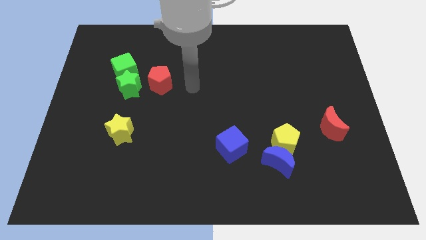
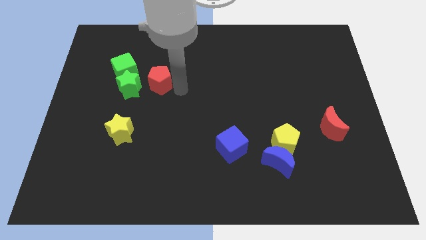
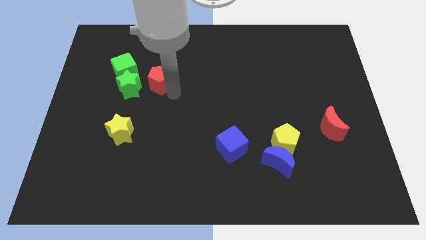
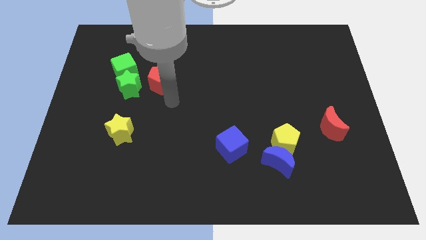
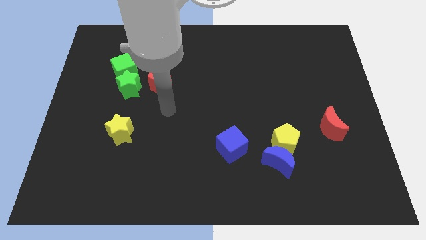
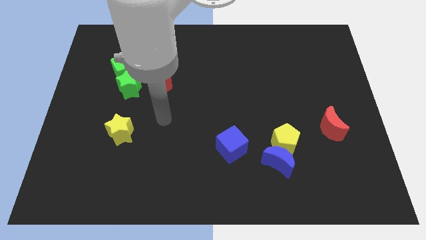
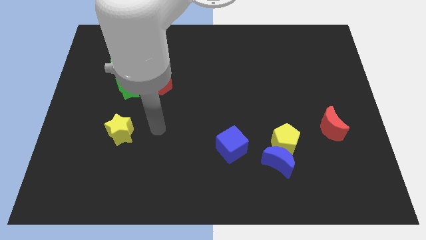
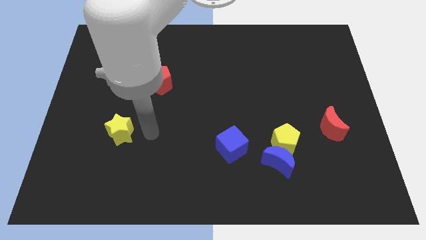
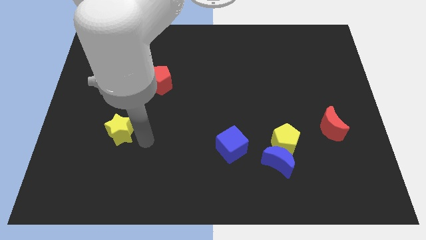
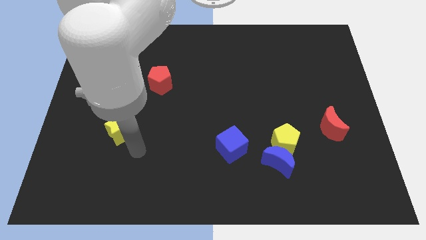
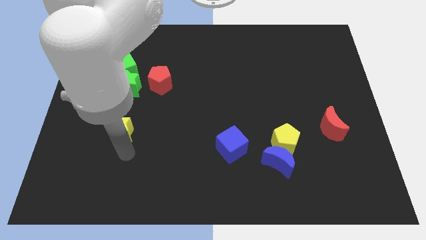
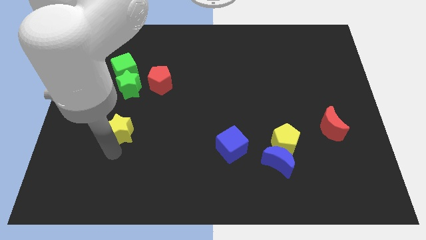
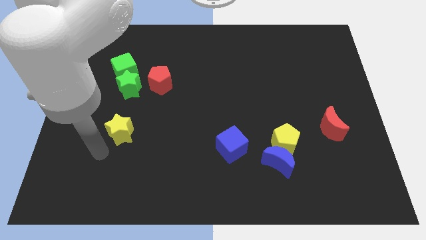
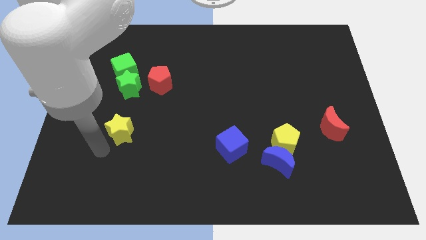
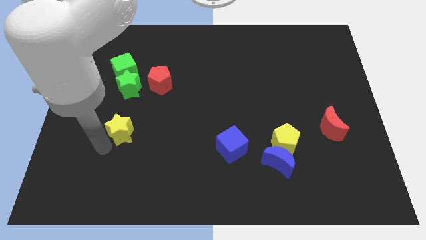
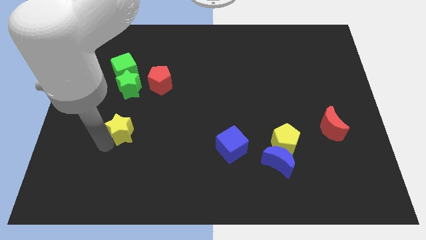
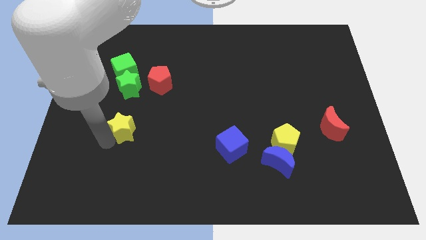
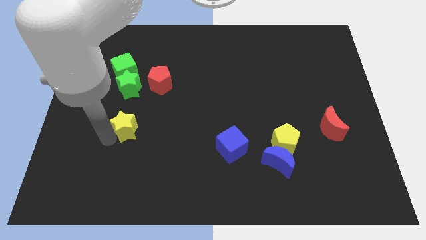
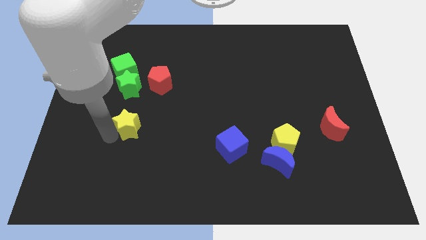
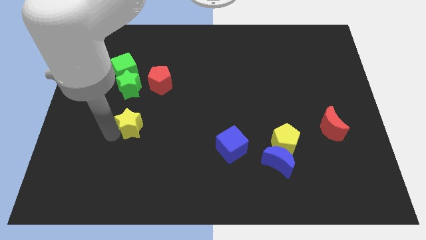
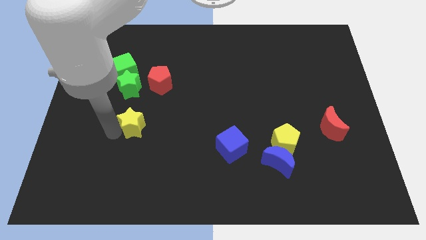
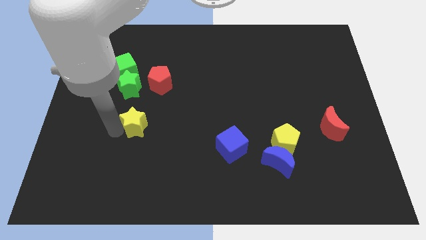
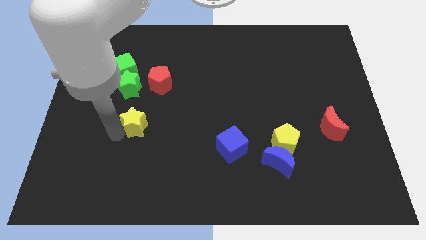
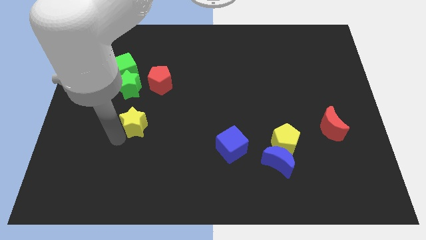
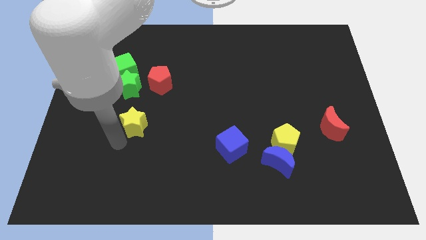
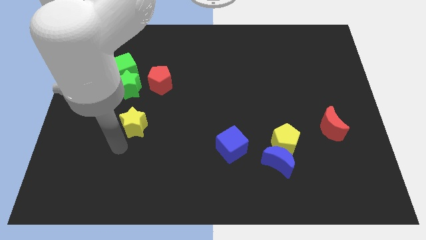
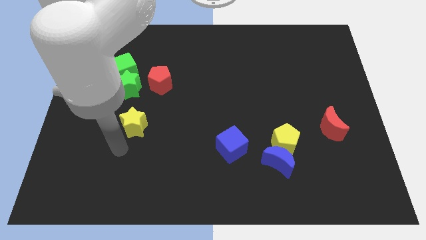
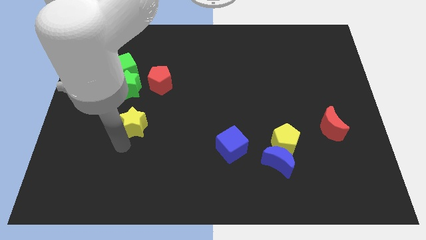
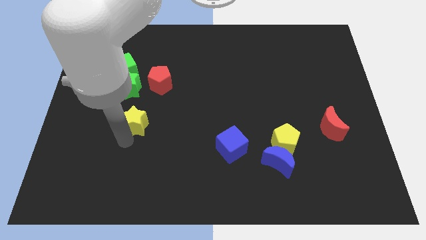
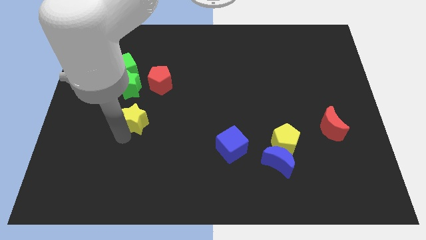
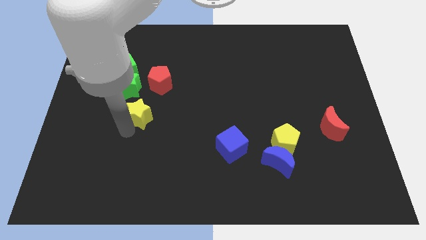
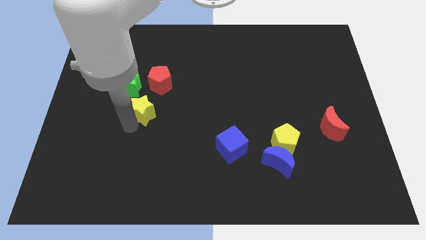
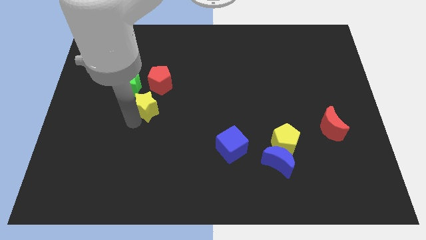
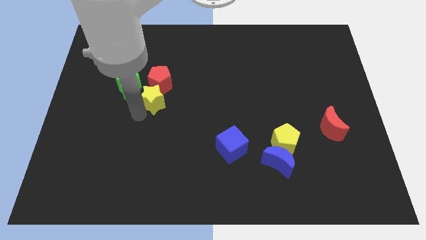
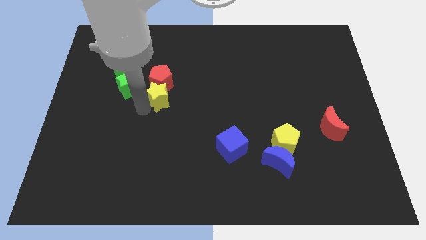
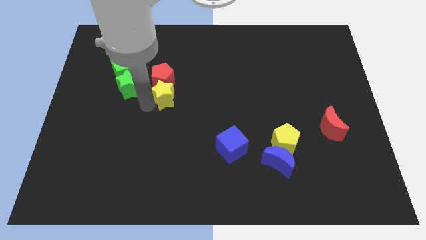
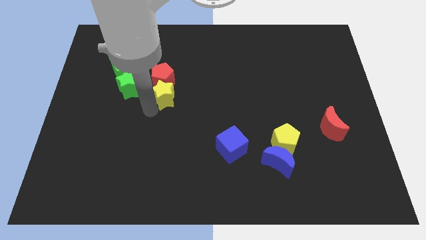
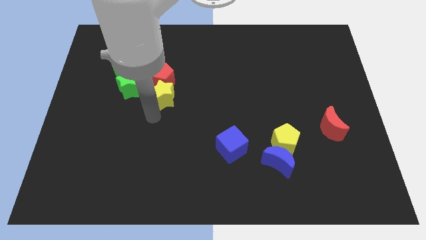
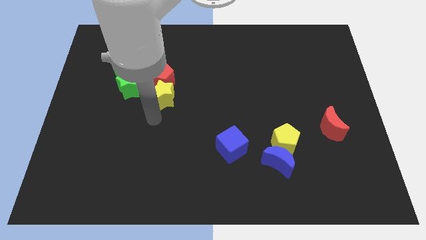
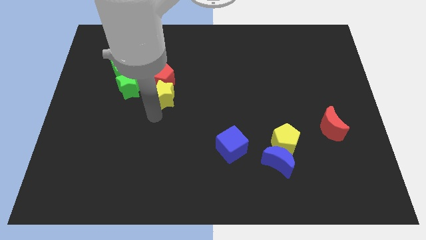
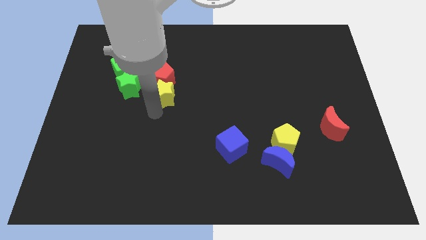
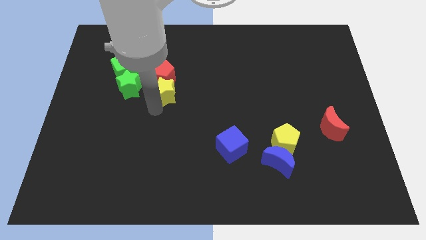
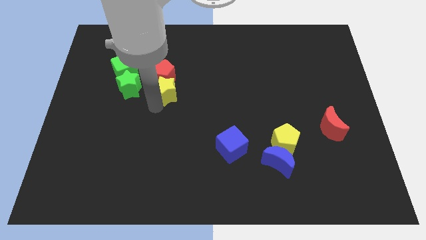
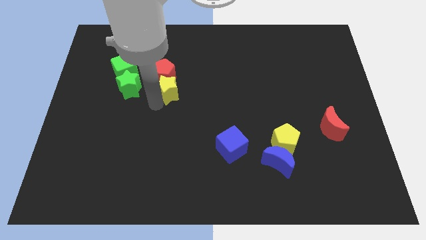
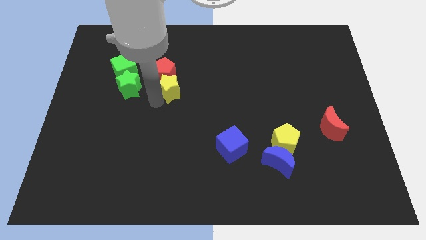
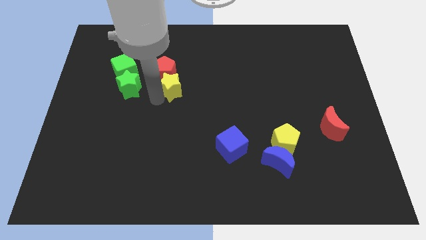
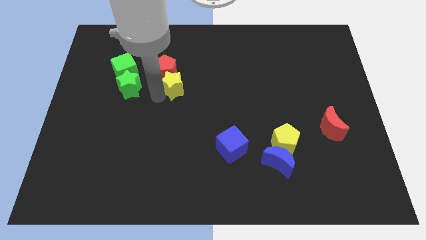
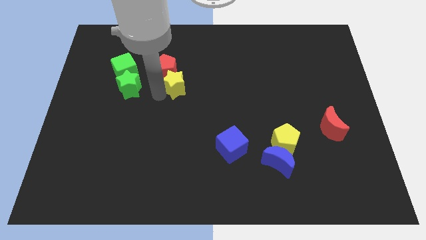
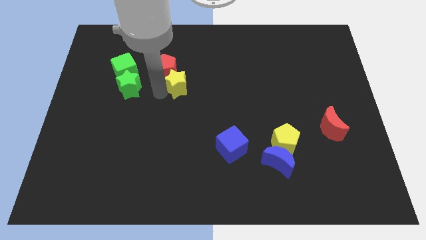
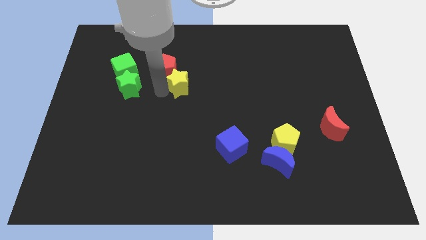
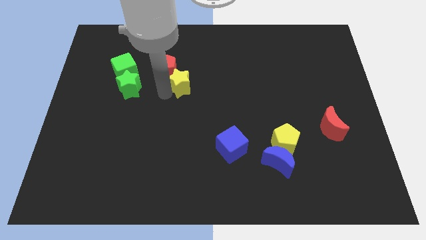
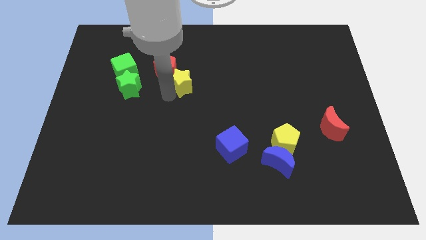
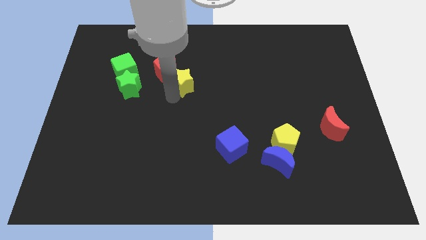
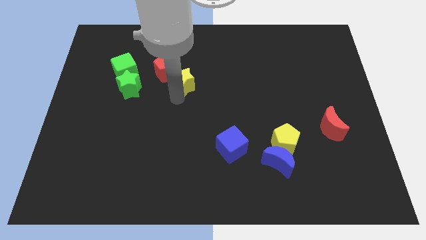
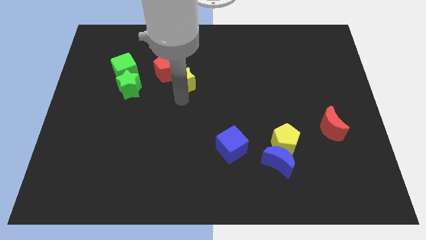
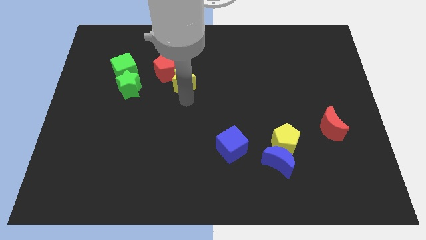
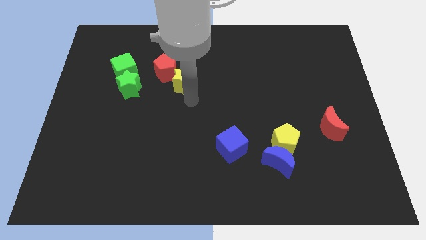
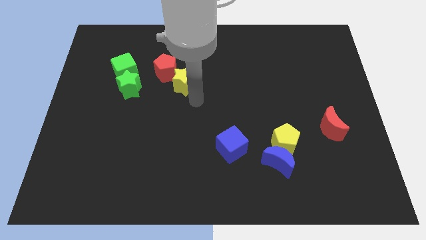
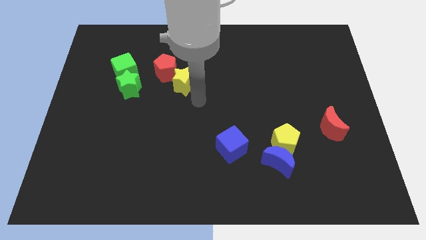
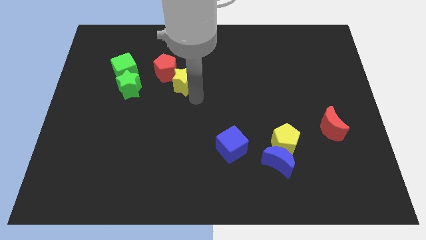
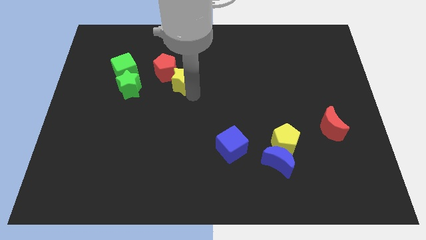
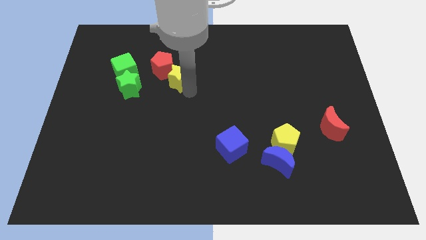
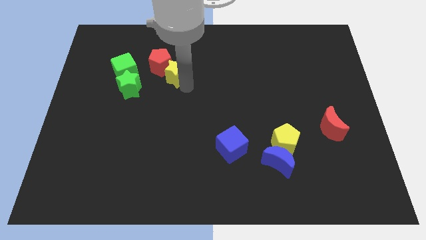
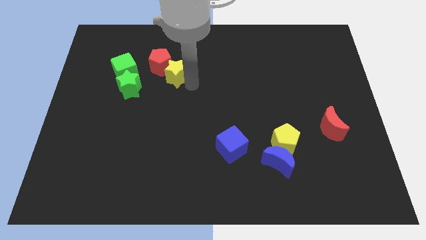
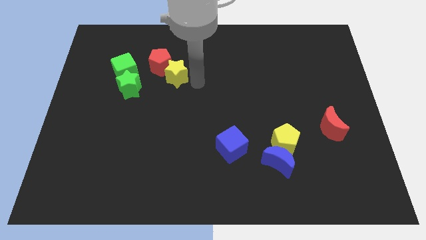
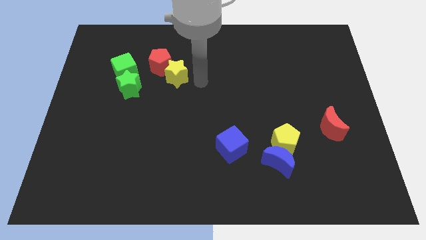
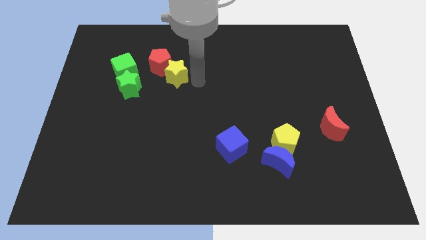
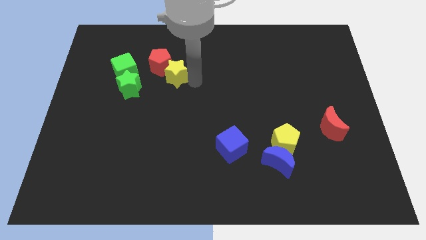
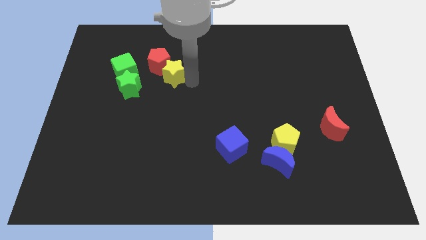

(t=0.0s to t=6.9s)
push the yellow star to the top right side of the green star

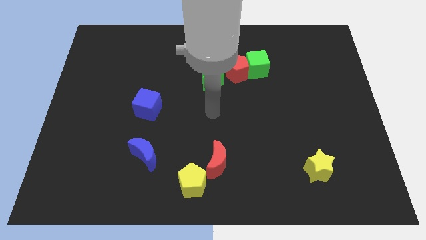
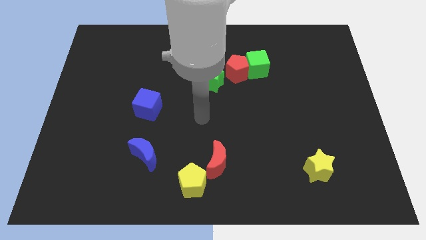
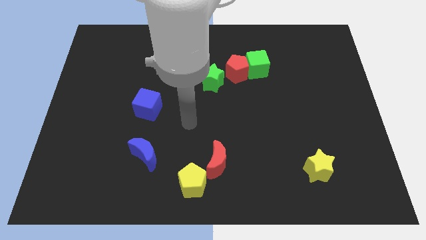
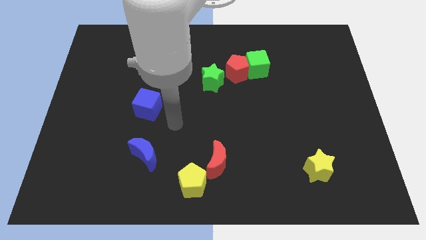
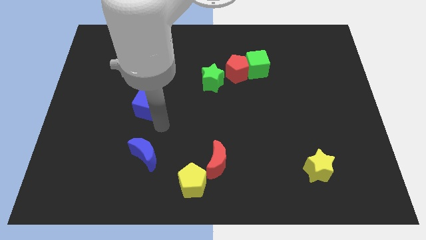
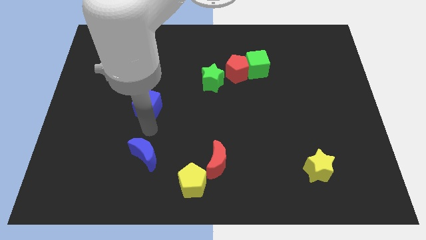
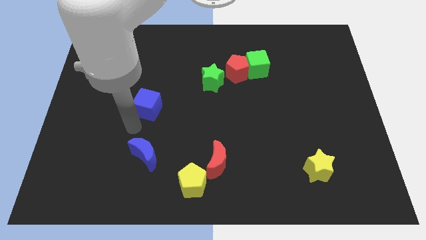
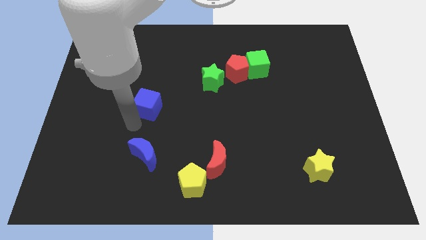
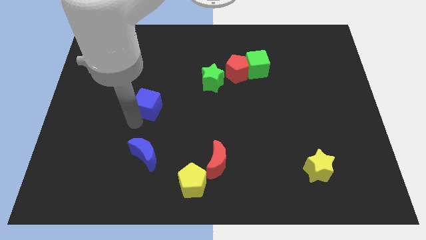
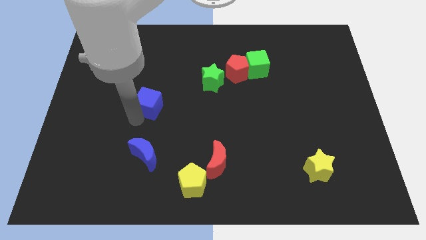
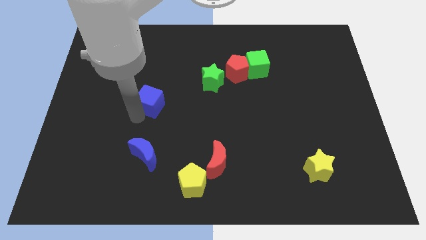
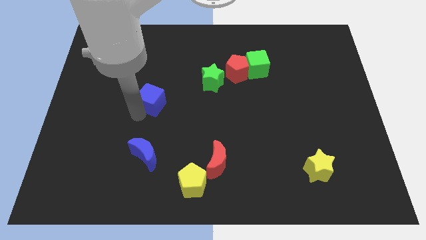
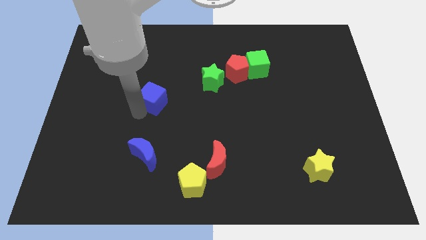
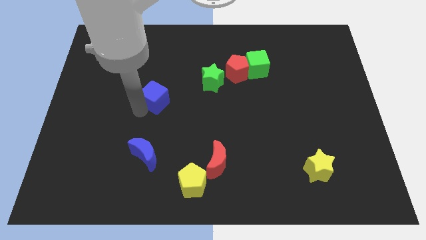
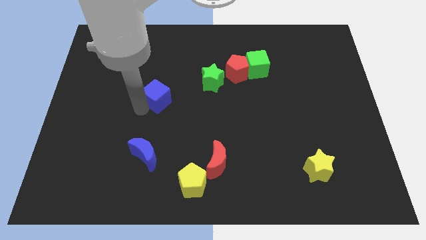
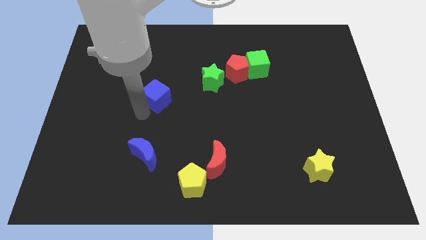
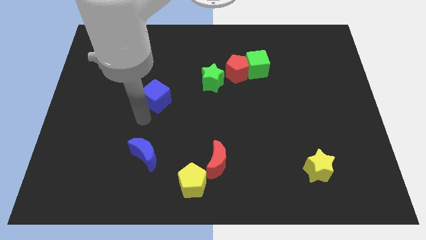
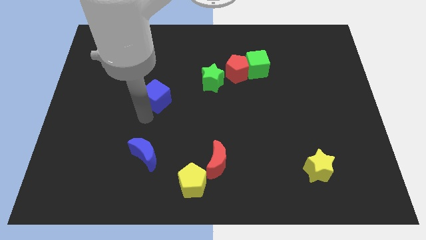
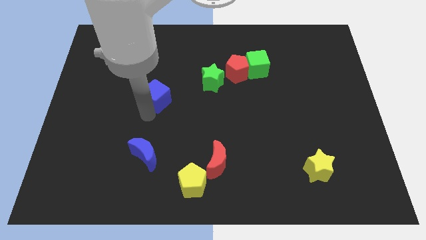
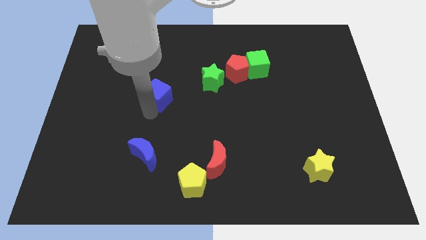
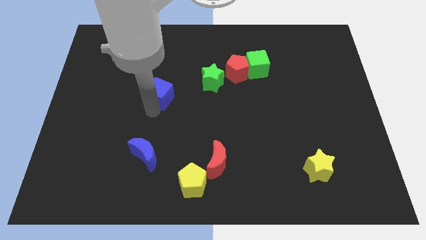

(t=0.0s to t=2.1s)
put the blue cube to the left of the green star
